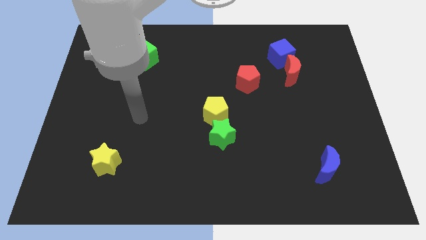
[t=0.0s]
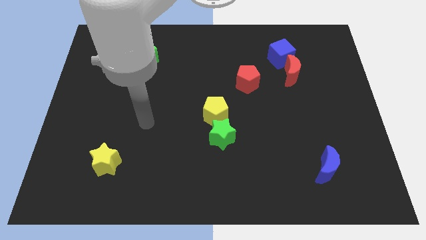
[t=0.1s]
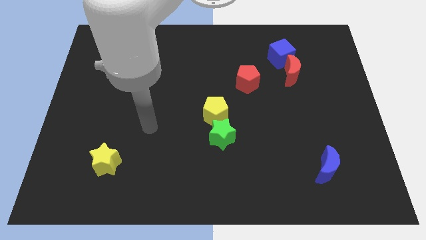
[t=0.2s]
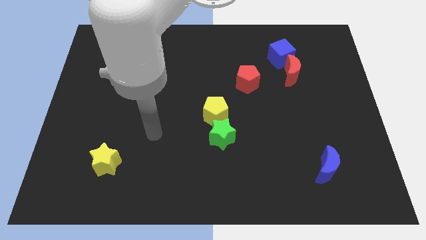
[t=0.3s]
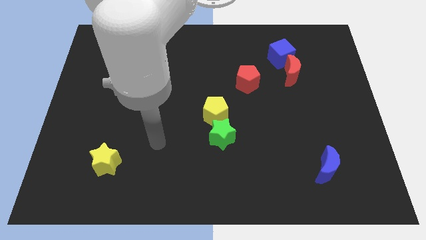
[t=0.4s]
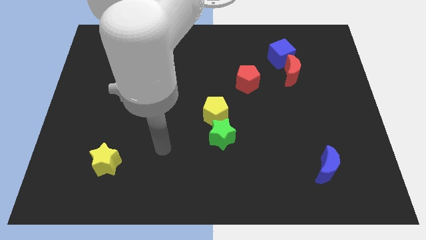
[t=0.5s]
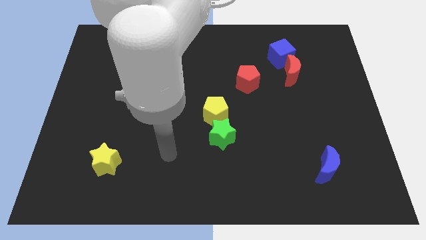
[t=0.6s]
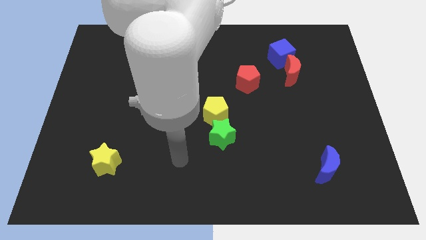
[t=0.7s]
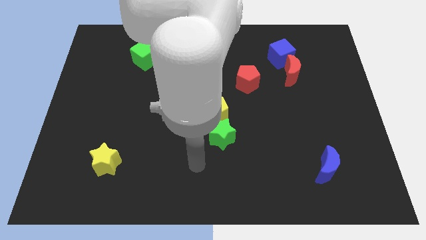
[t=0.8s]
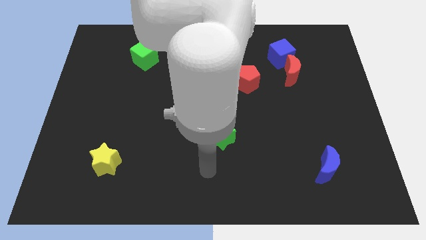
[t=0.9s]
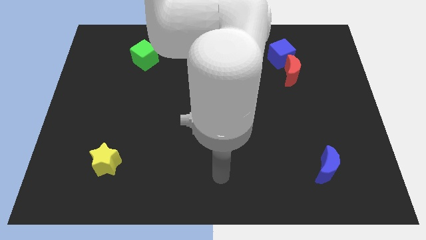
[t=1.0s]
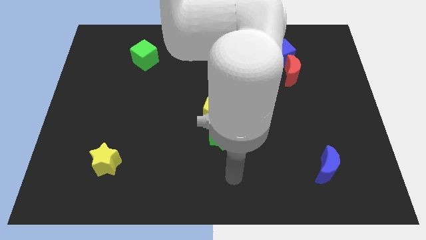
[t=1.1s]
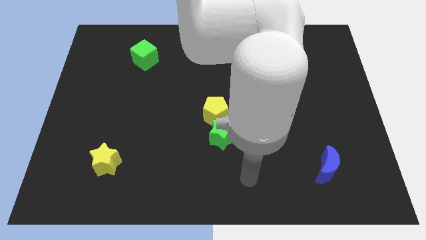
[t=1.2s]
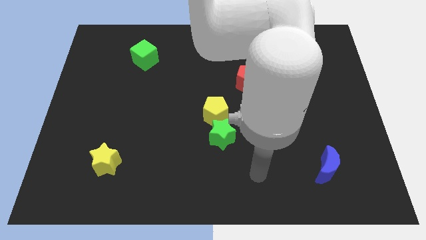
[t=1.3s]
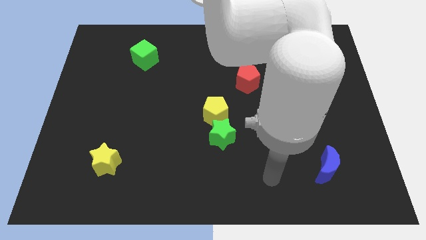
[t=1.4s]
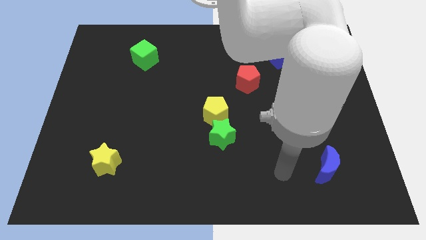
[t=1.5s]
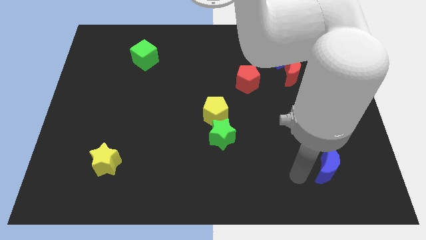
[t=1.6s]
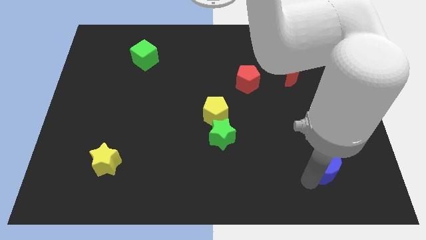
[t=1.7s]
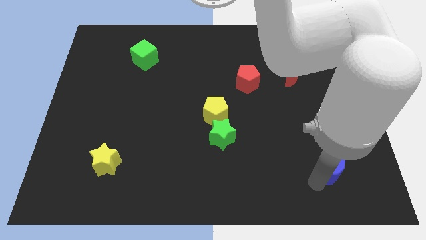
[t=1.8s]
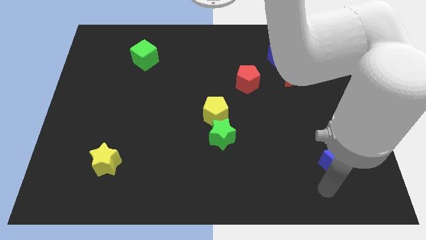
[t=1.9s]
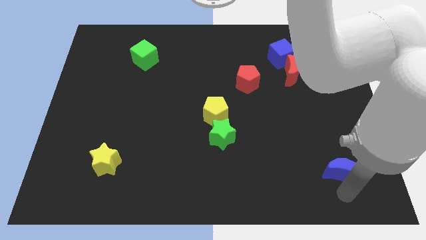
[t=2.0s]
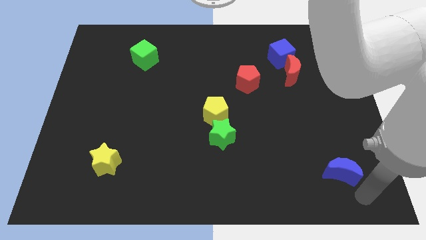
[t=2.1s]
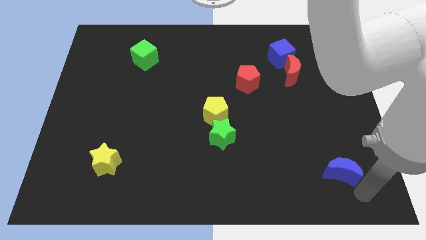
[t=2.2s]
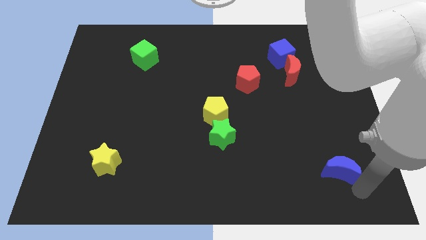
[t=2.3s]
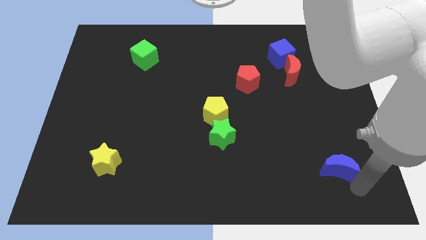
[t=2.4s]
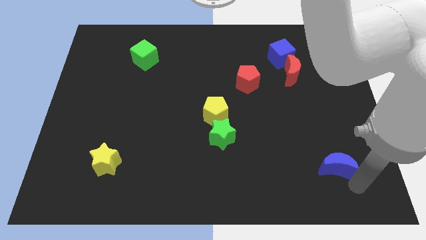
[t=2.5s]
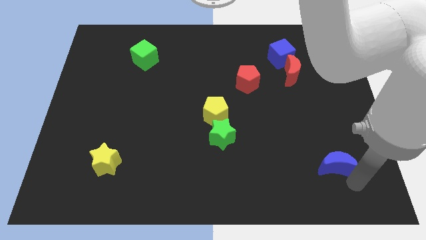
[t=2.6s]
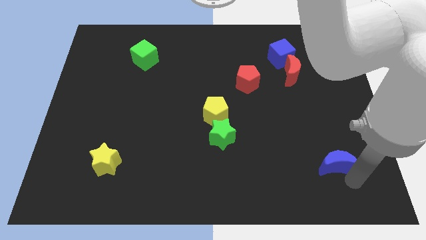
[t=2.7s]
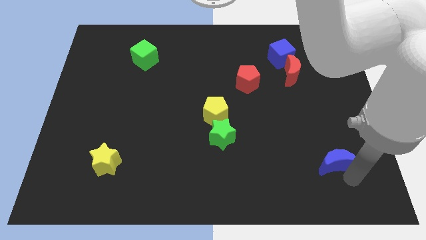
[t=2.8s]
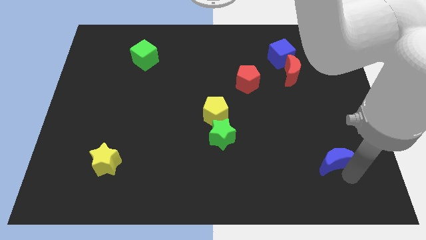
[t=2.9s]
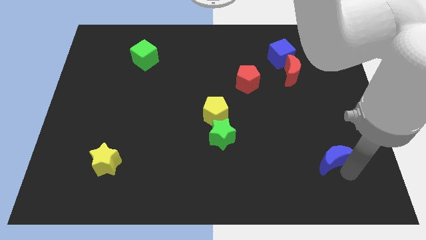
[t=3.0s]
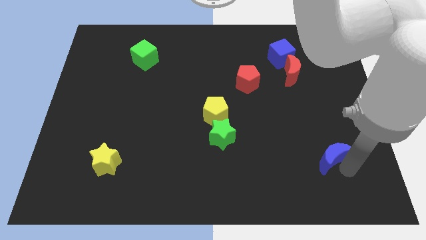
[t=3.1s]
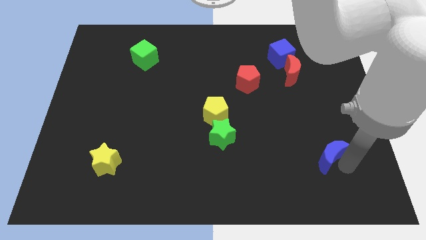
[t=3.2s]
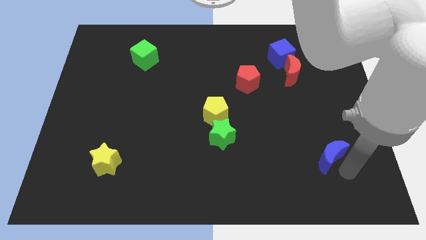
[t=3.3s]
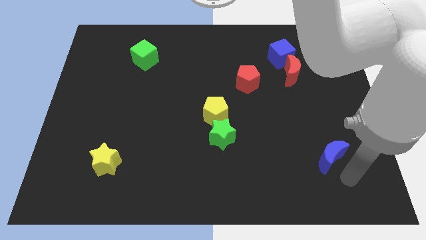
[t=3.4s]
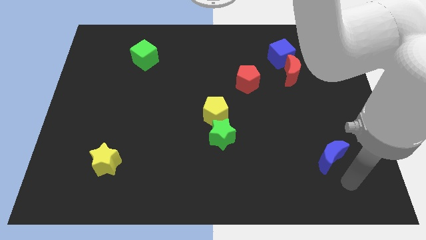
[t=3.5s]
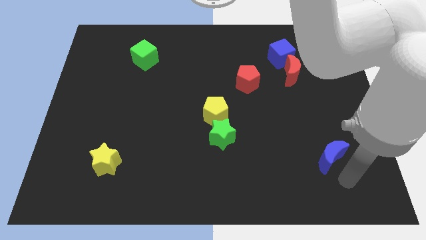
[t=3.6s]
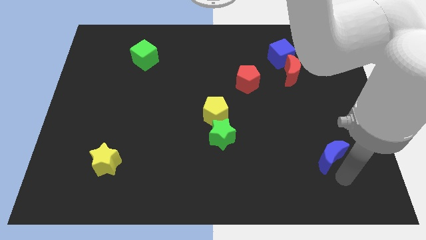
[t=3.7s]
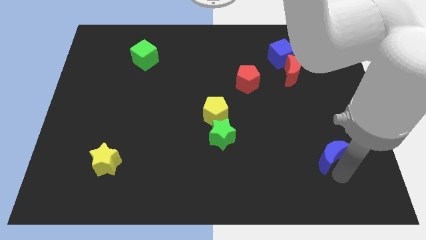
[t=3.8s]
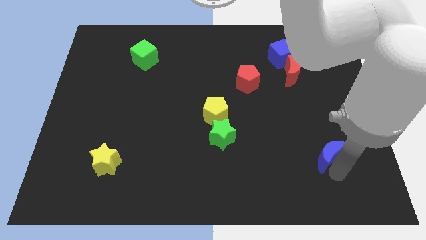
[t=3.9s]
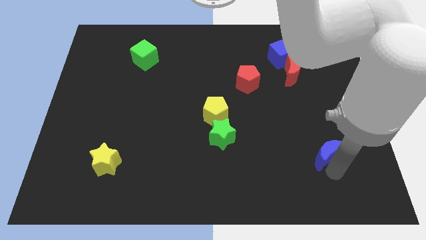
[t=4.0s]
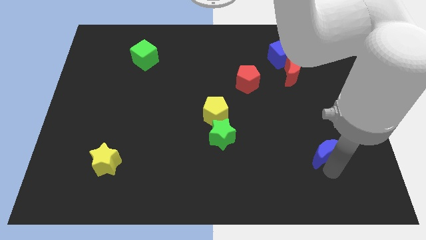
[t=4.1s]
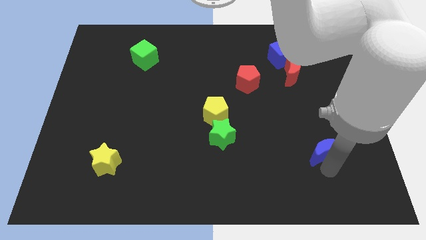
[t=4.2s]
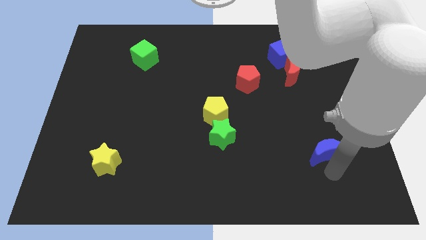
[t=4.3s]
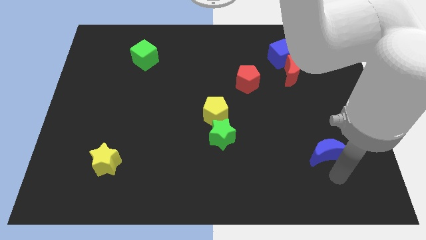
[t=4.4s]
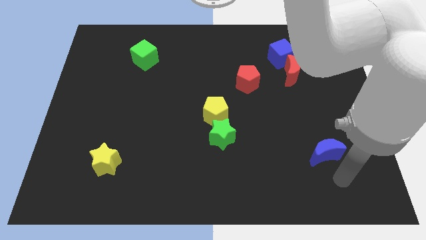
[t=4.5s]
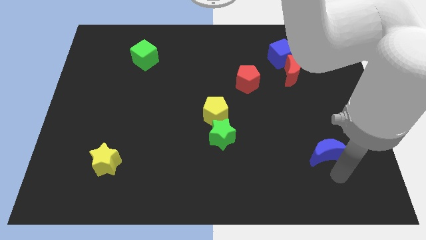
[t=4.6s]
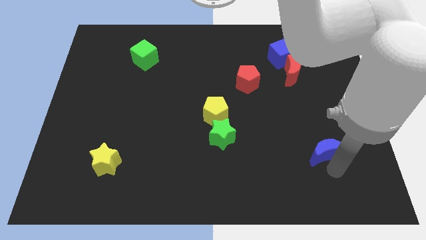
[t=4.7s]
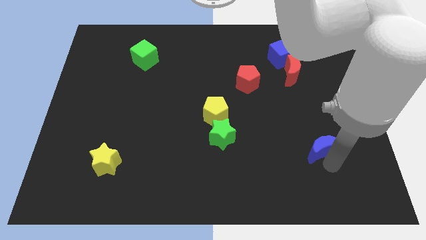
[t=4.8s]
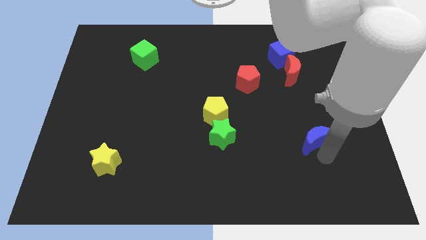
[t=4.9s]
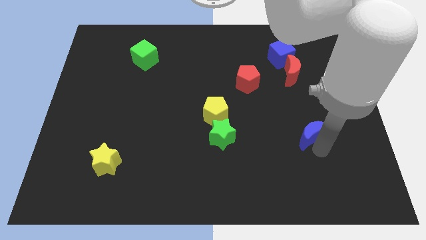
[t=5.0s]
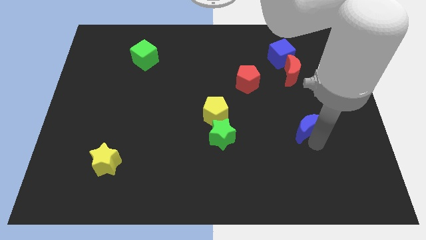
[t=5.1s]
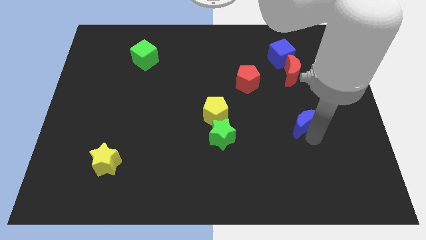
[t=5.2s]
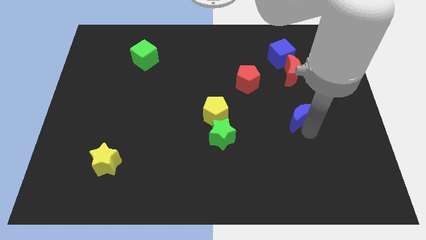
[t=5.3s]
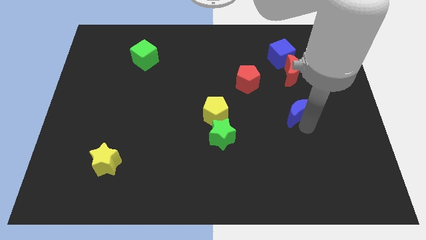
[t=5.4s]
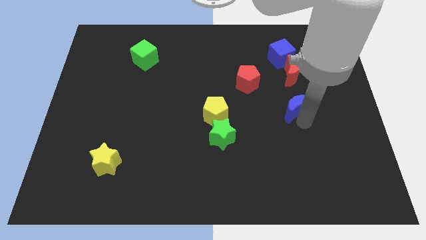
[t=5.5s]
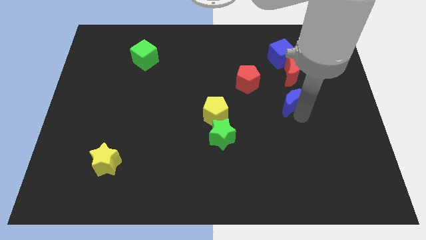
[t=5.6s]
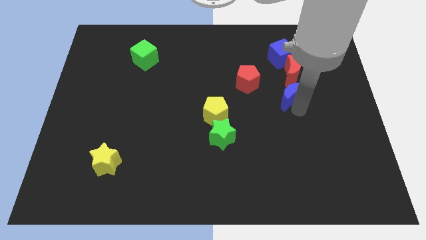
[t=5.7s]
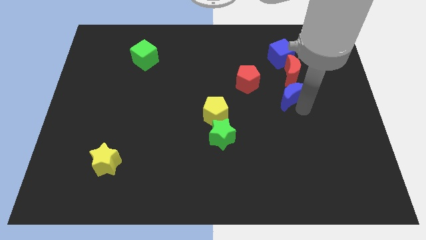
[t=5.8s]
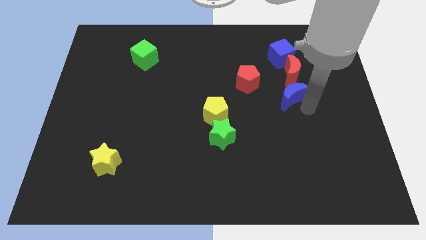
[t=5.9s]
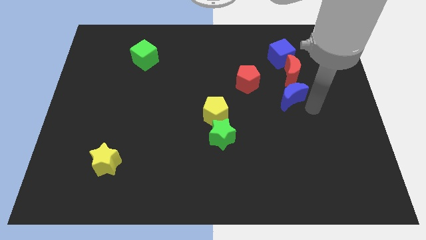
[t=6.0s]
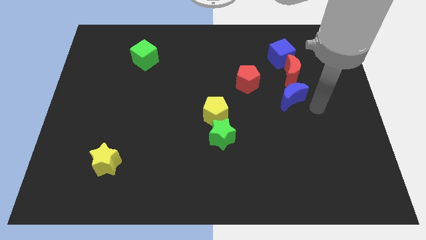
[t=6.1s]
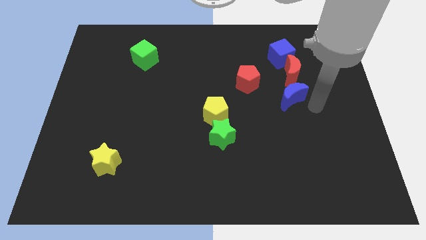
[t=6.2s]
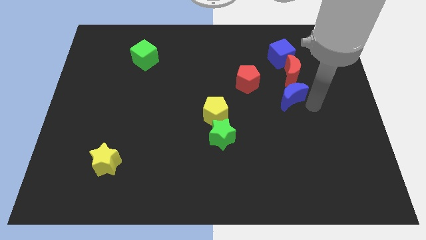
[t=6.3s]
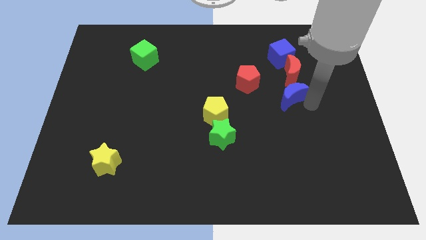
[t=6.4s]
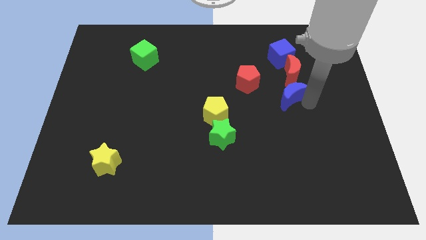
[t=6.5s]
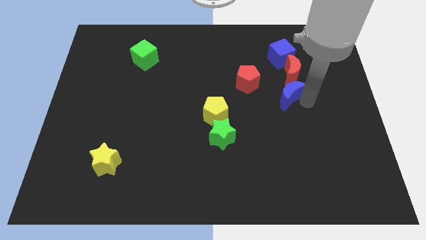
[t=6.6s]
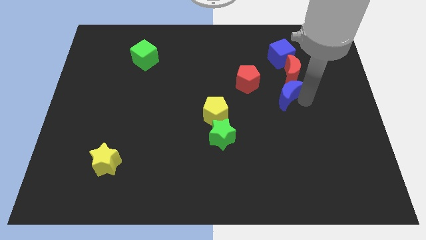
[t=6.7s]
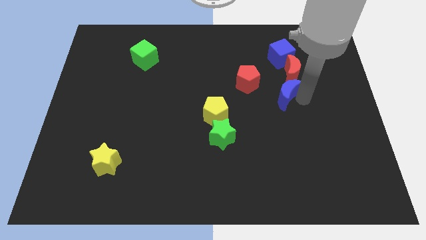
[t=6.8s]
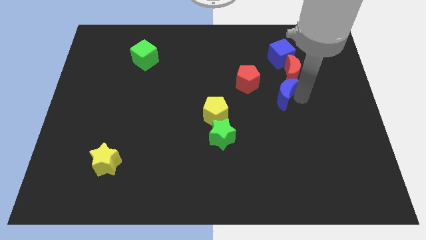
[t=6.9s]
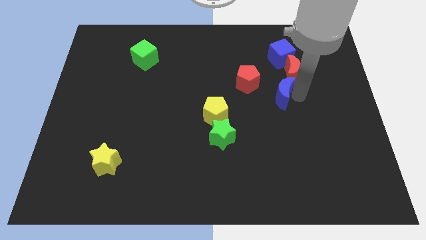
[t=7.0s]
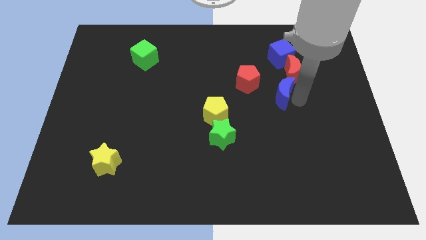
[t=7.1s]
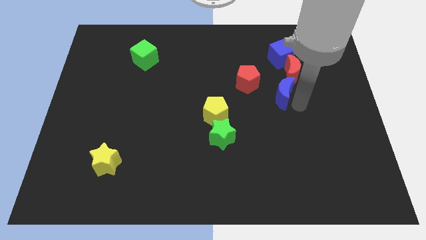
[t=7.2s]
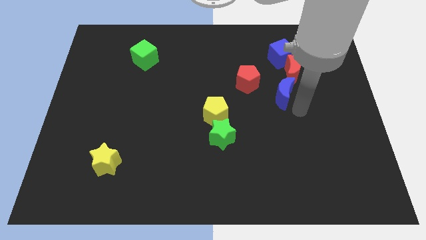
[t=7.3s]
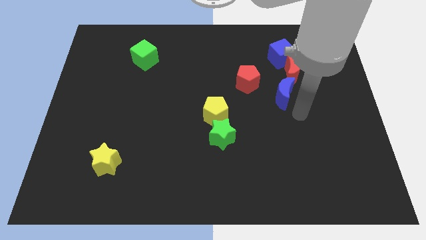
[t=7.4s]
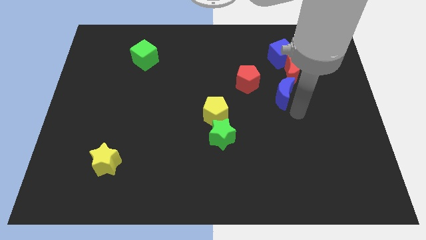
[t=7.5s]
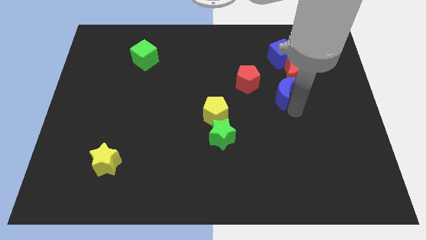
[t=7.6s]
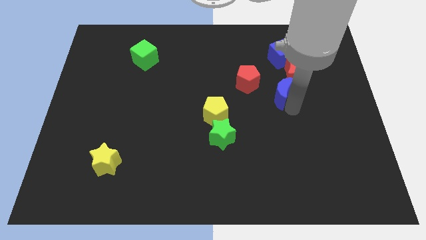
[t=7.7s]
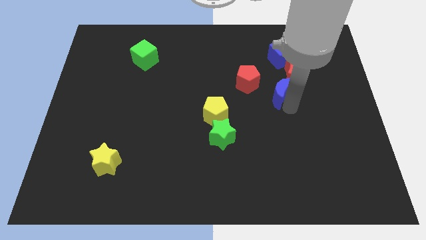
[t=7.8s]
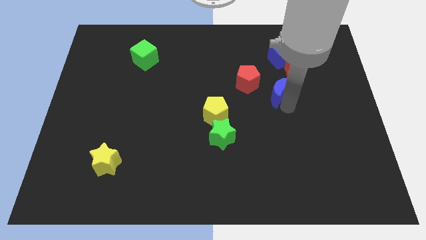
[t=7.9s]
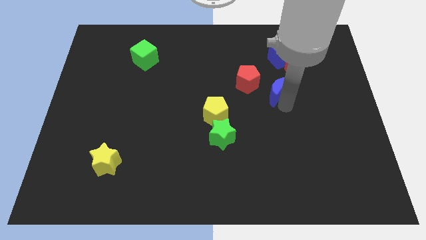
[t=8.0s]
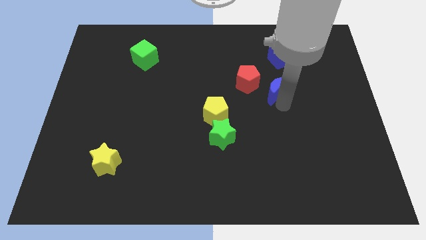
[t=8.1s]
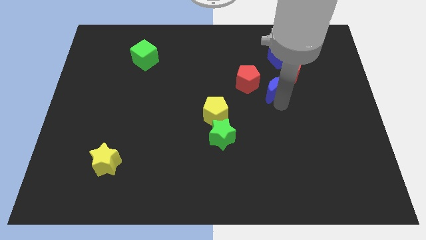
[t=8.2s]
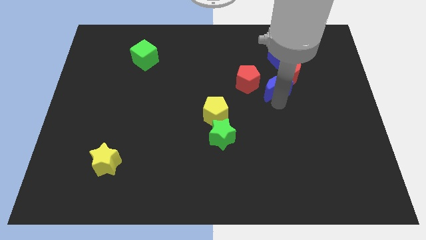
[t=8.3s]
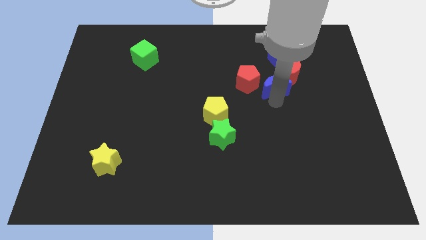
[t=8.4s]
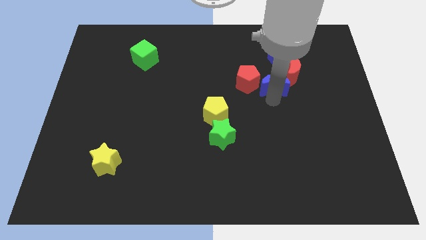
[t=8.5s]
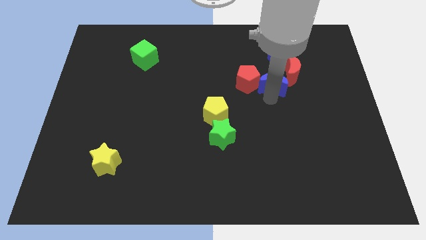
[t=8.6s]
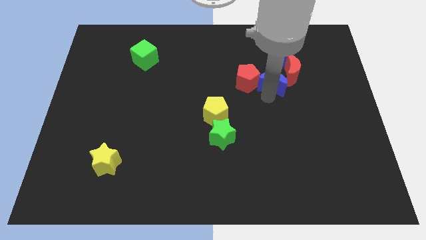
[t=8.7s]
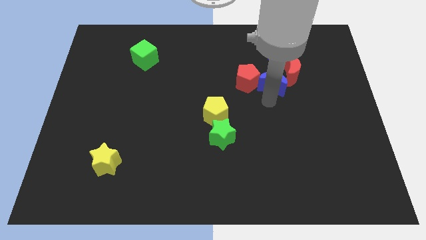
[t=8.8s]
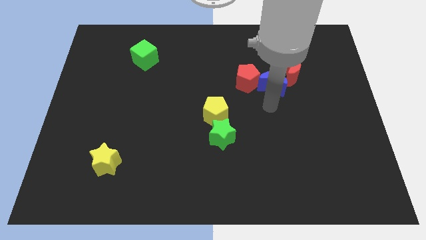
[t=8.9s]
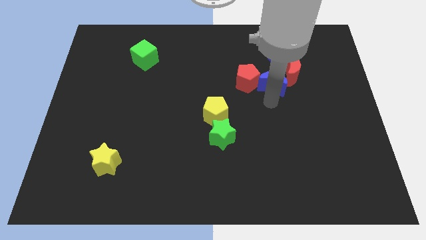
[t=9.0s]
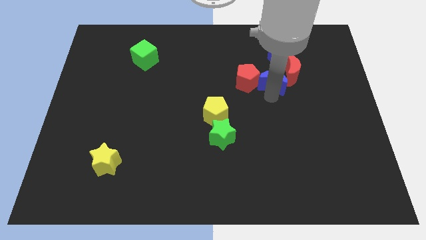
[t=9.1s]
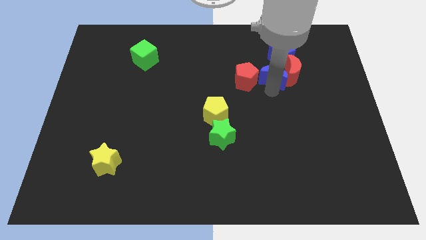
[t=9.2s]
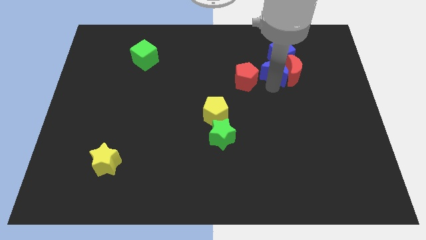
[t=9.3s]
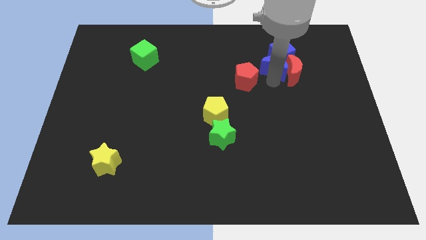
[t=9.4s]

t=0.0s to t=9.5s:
move the blue moon next to the blue cube
